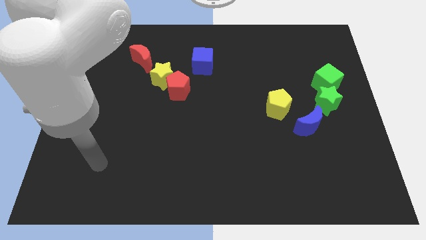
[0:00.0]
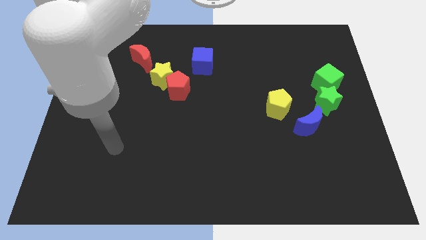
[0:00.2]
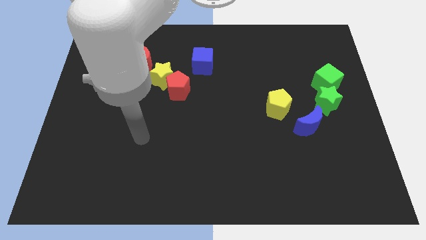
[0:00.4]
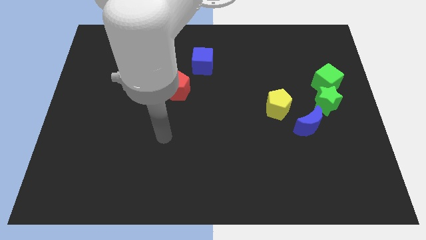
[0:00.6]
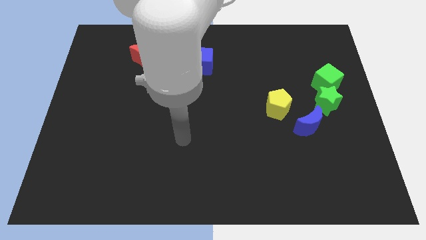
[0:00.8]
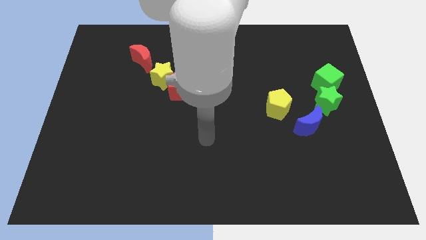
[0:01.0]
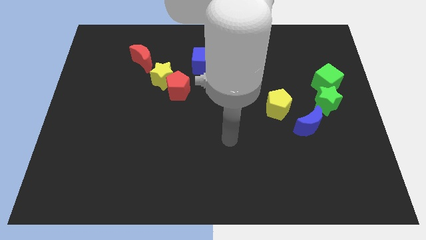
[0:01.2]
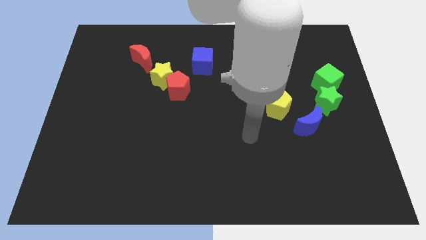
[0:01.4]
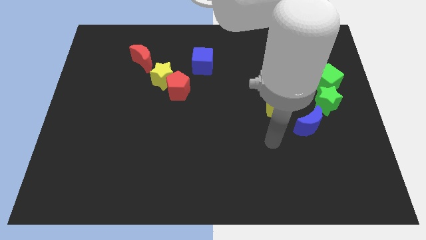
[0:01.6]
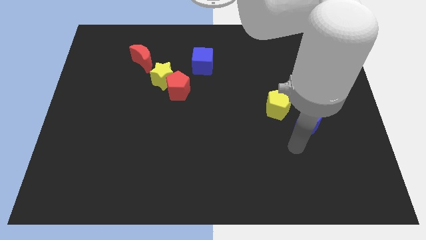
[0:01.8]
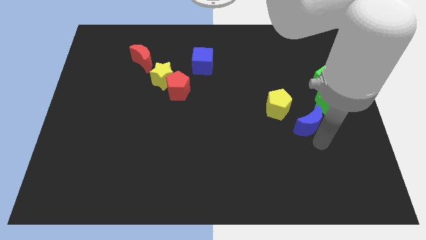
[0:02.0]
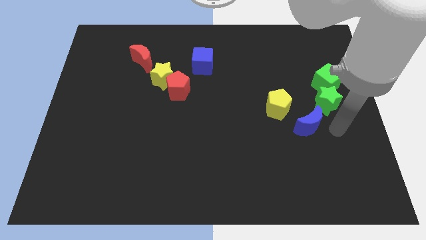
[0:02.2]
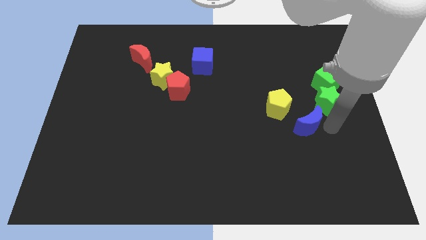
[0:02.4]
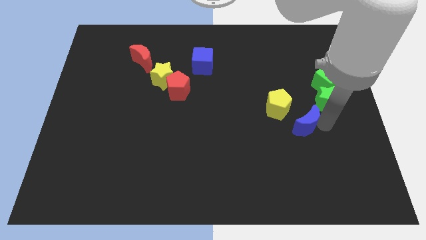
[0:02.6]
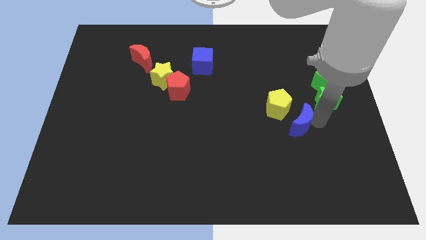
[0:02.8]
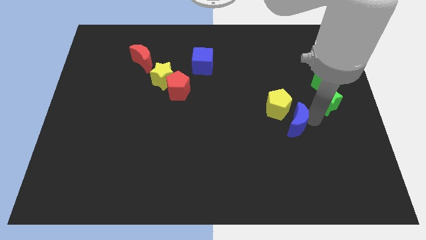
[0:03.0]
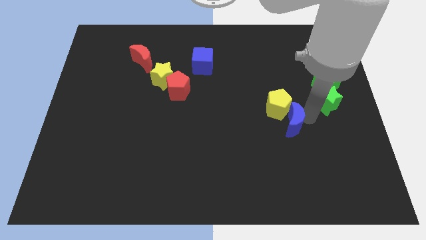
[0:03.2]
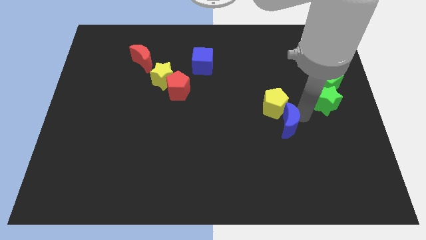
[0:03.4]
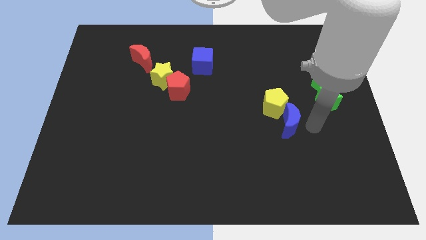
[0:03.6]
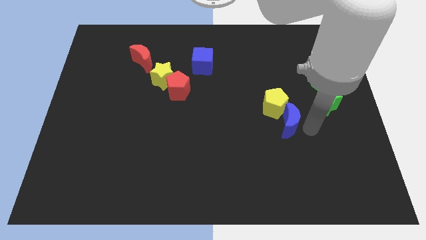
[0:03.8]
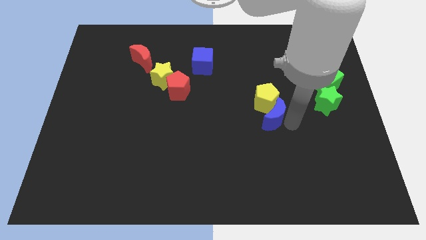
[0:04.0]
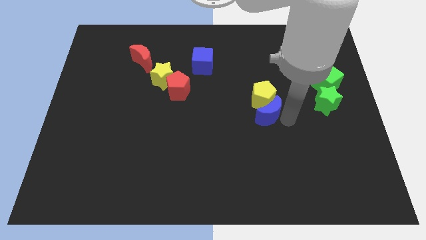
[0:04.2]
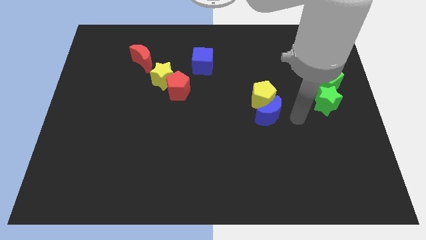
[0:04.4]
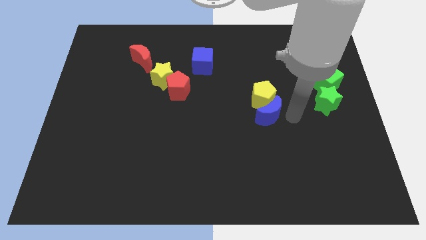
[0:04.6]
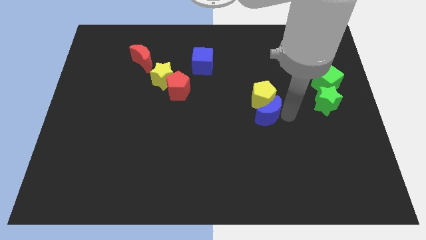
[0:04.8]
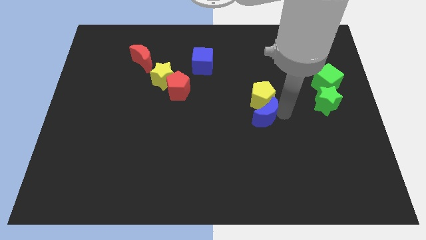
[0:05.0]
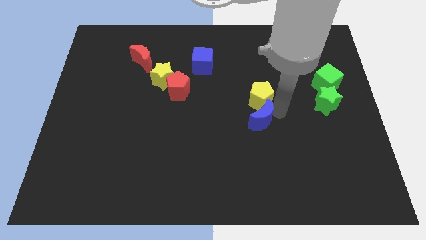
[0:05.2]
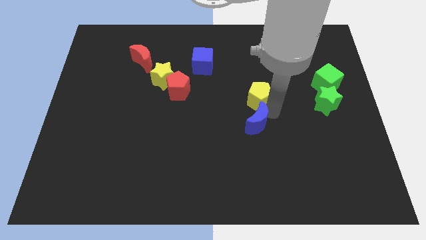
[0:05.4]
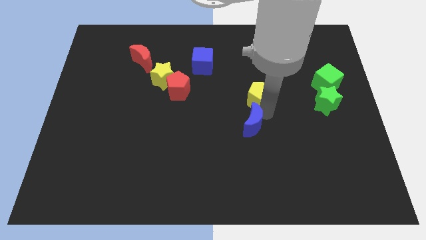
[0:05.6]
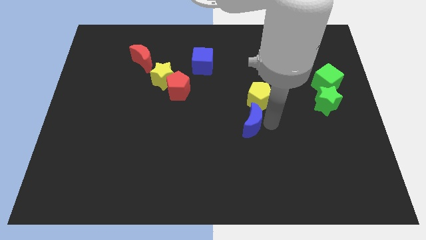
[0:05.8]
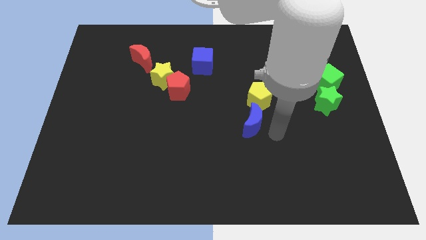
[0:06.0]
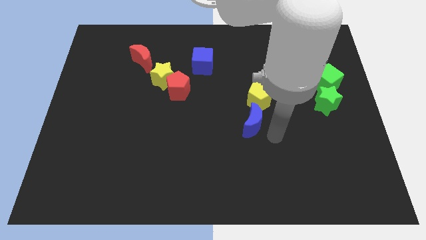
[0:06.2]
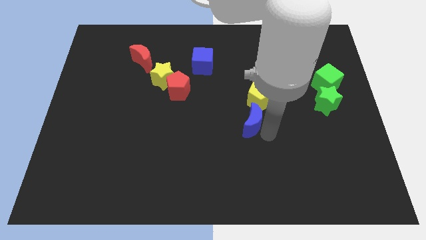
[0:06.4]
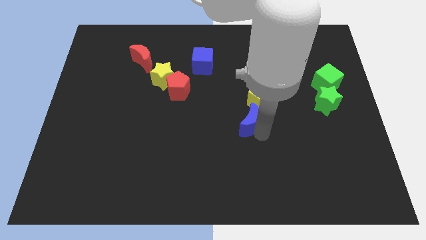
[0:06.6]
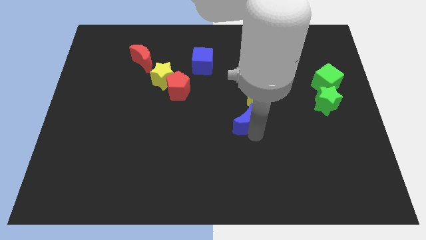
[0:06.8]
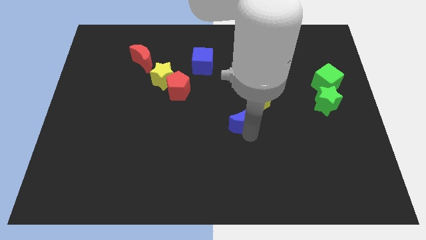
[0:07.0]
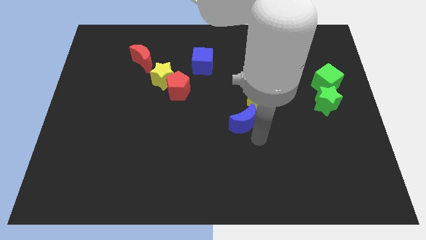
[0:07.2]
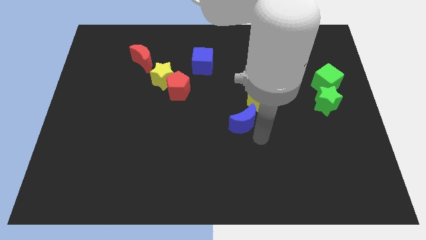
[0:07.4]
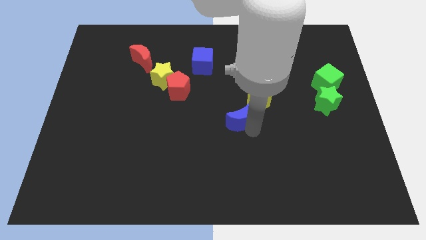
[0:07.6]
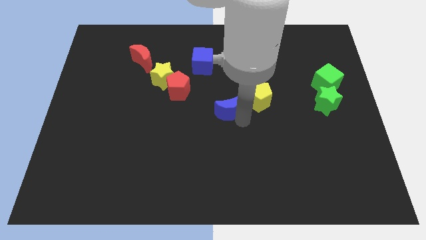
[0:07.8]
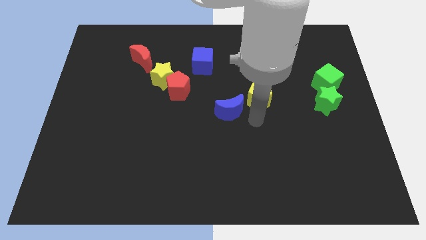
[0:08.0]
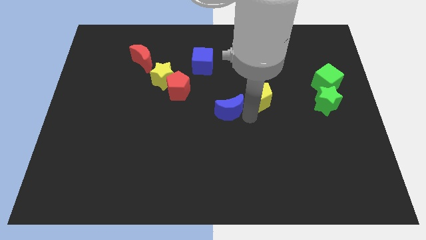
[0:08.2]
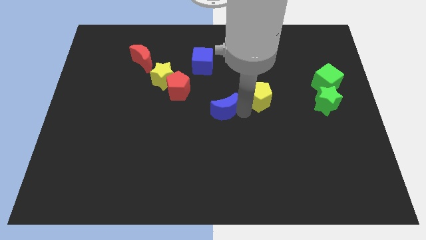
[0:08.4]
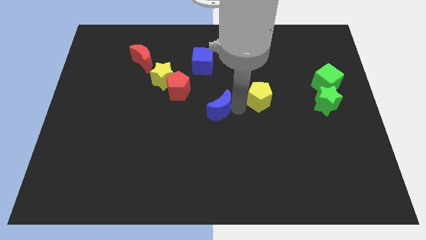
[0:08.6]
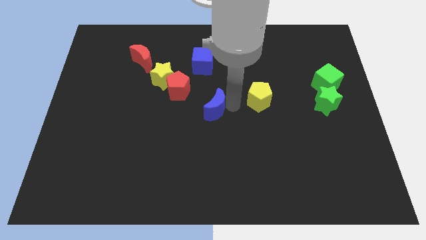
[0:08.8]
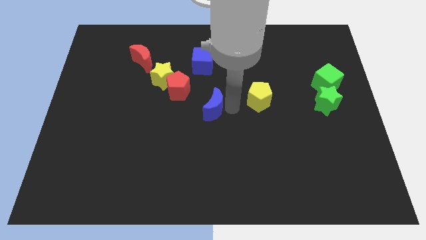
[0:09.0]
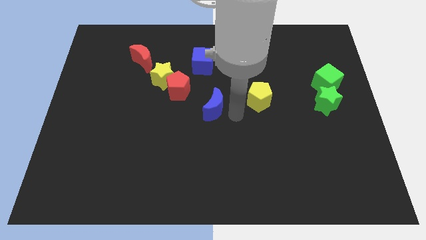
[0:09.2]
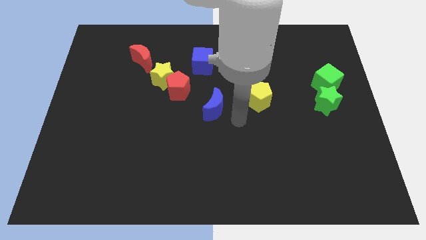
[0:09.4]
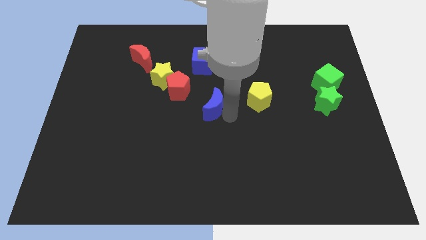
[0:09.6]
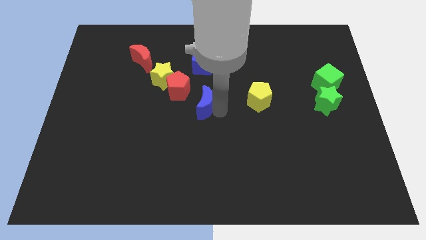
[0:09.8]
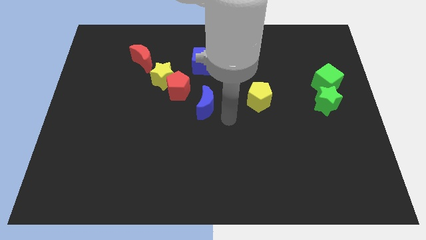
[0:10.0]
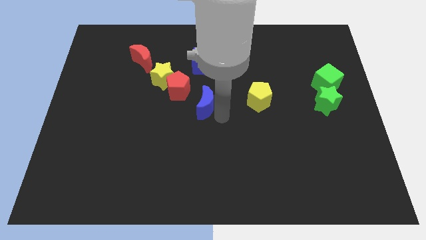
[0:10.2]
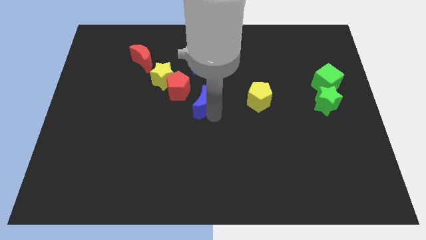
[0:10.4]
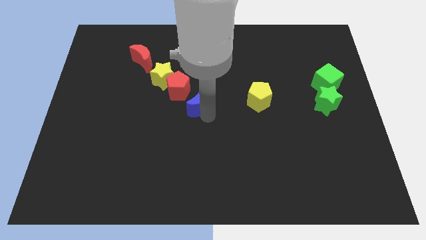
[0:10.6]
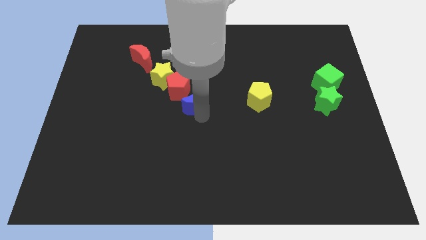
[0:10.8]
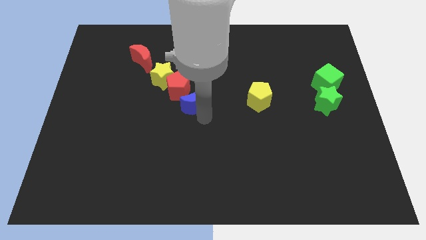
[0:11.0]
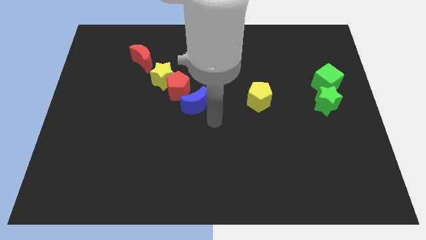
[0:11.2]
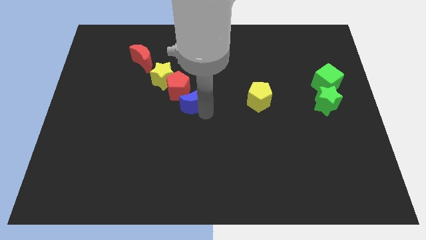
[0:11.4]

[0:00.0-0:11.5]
push the blue moon to the red pentagon

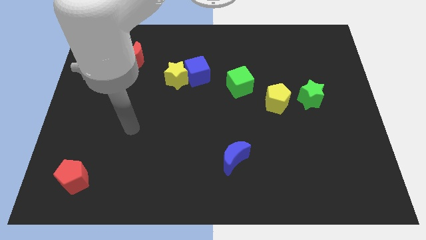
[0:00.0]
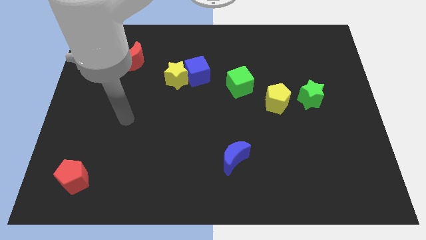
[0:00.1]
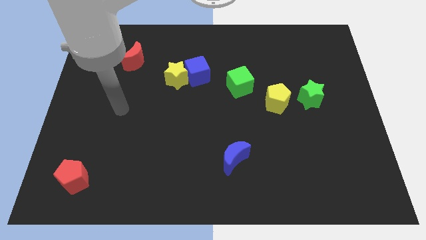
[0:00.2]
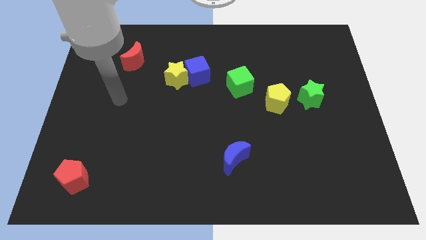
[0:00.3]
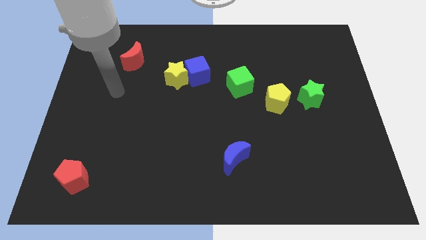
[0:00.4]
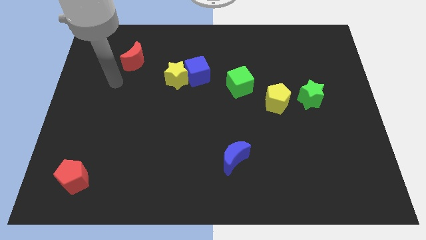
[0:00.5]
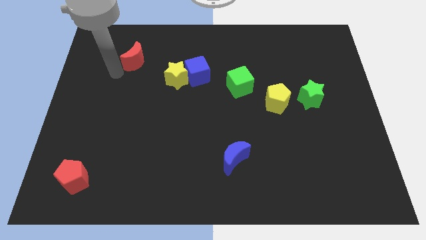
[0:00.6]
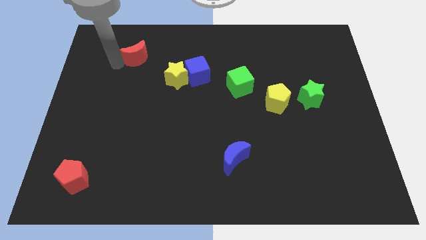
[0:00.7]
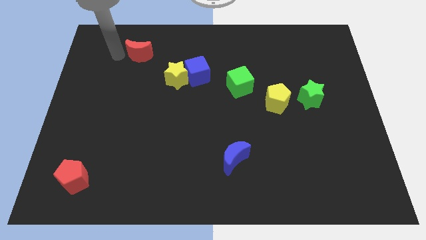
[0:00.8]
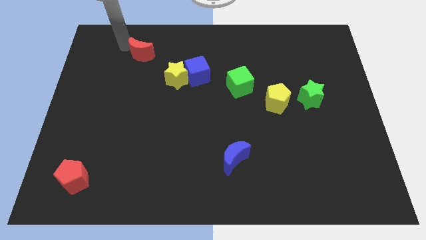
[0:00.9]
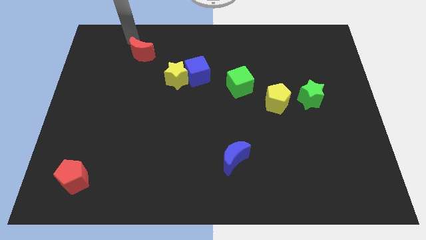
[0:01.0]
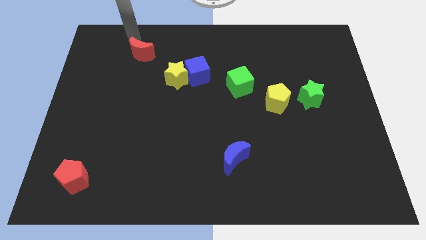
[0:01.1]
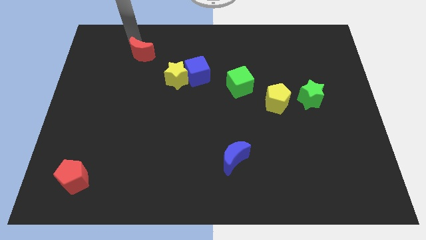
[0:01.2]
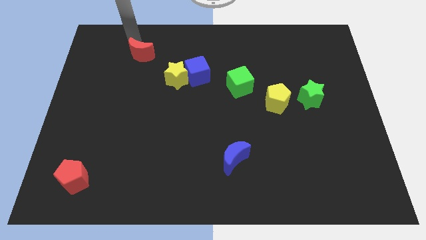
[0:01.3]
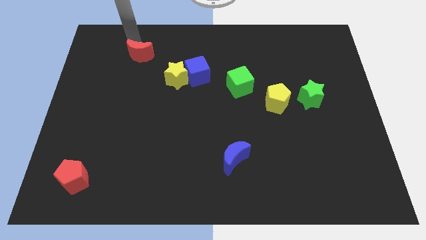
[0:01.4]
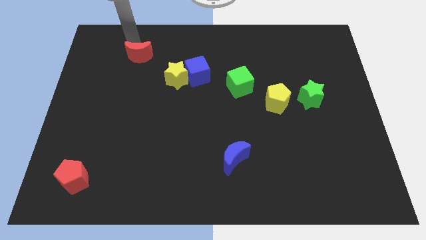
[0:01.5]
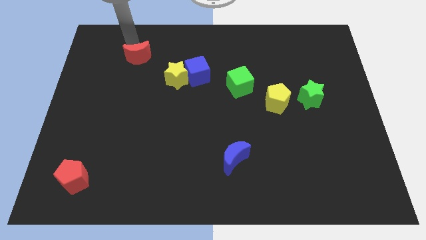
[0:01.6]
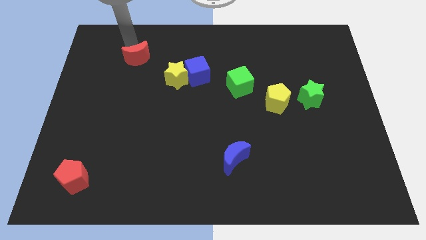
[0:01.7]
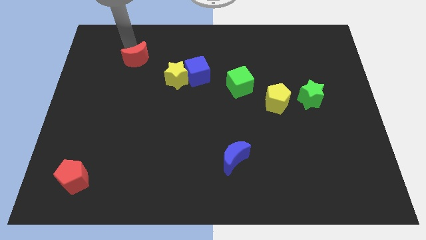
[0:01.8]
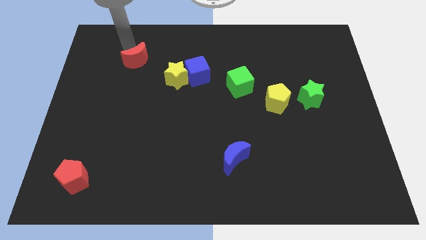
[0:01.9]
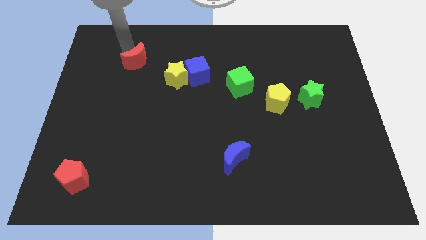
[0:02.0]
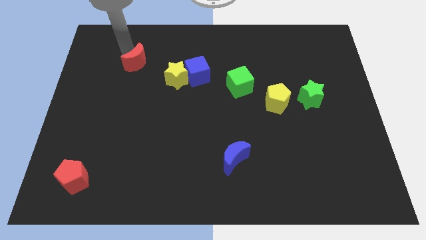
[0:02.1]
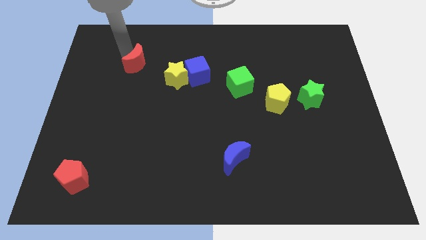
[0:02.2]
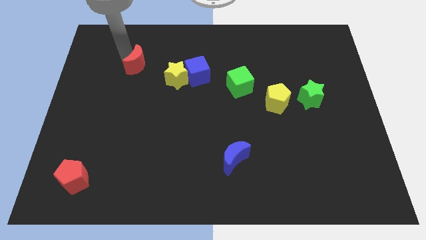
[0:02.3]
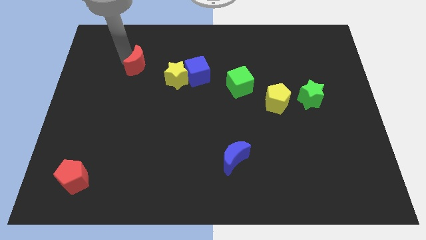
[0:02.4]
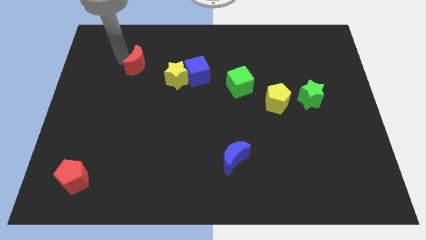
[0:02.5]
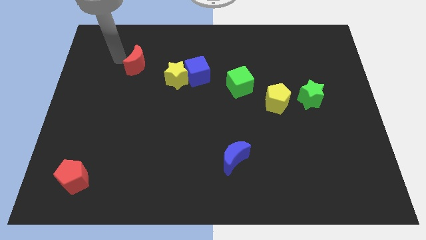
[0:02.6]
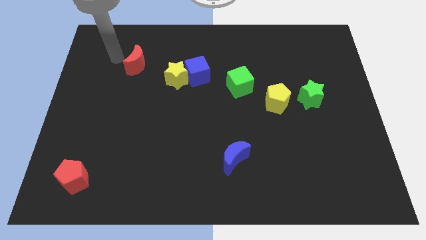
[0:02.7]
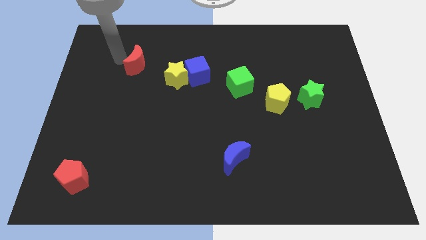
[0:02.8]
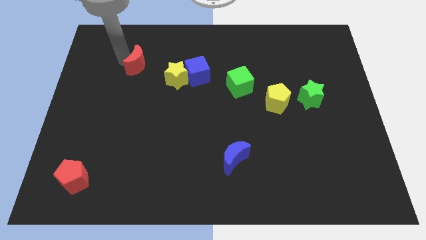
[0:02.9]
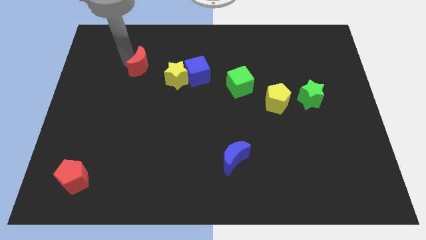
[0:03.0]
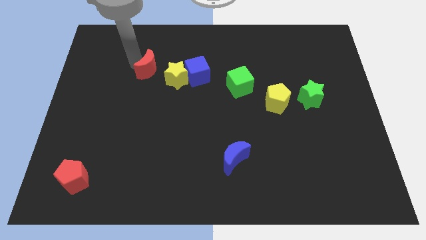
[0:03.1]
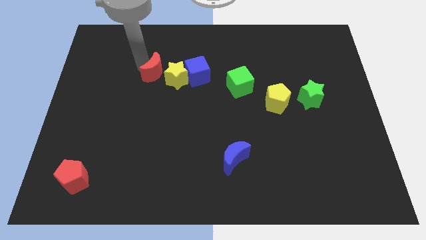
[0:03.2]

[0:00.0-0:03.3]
put the red moon close to the yellow star
